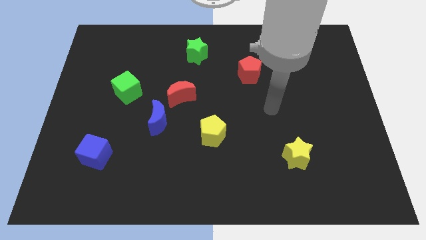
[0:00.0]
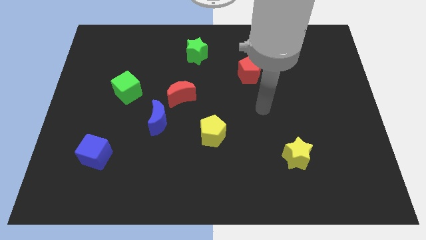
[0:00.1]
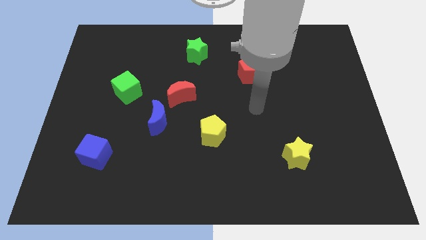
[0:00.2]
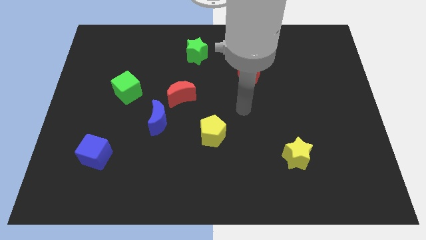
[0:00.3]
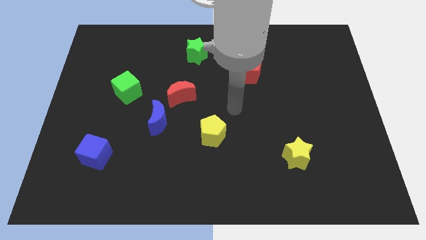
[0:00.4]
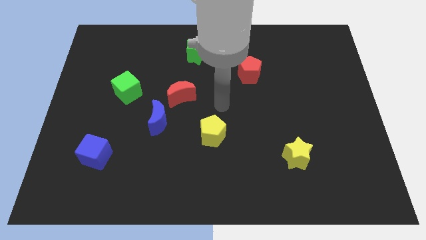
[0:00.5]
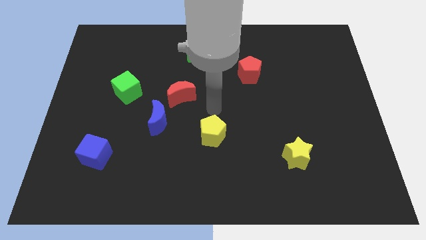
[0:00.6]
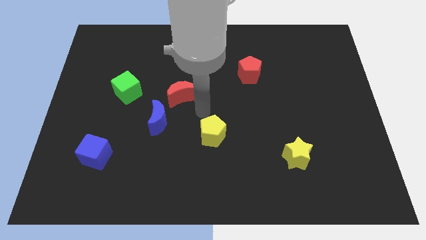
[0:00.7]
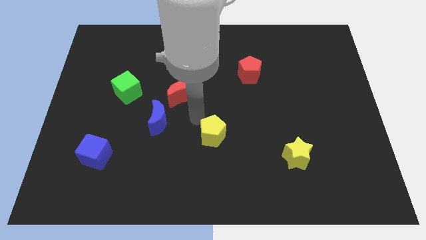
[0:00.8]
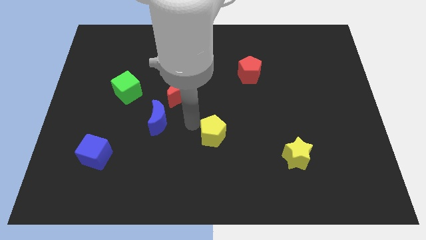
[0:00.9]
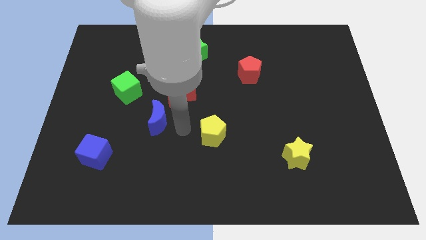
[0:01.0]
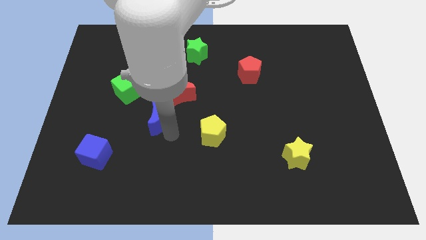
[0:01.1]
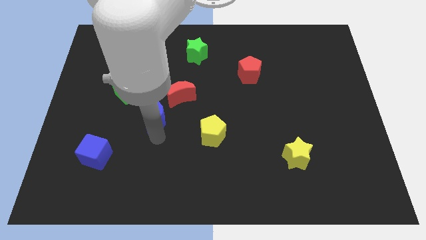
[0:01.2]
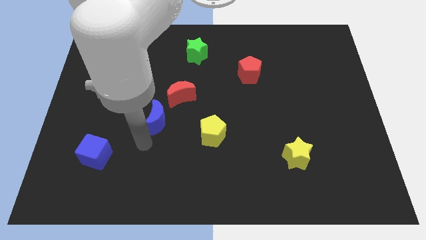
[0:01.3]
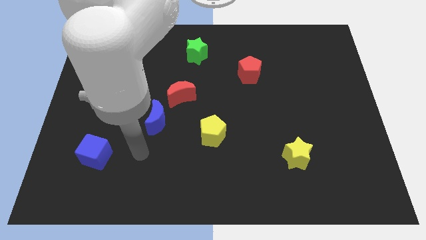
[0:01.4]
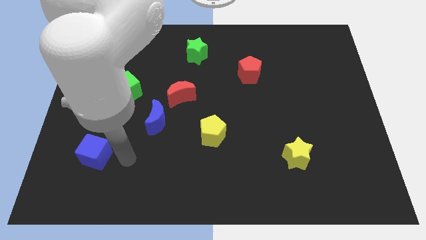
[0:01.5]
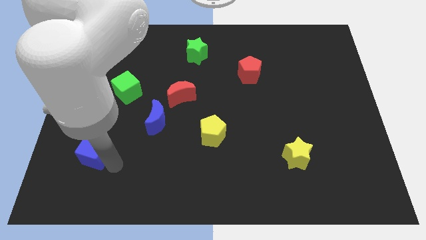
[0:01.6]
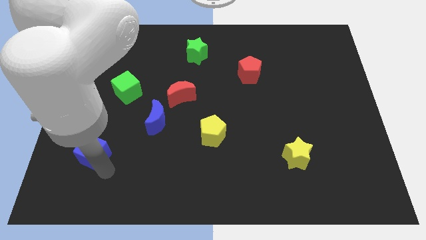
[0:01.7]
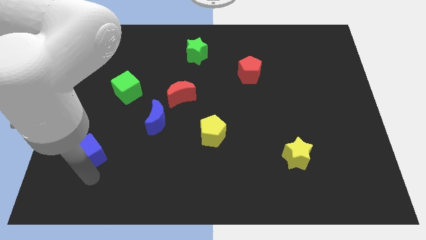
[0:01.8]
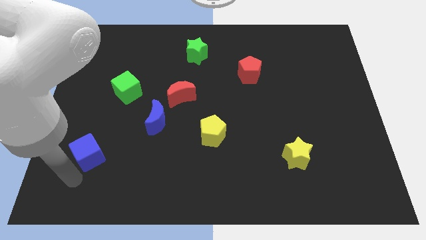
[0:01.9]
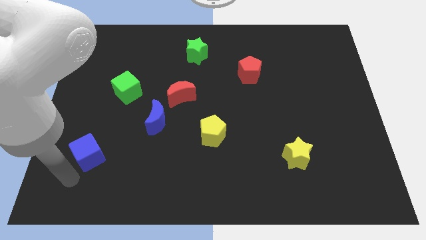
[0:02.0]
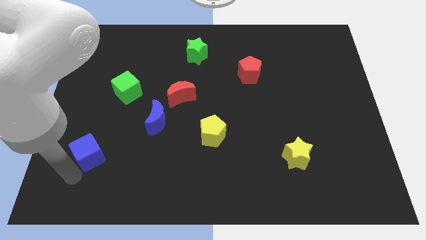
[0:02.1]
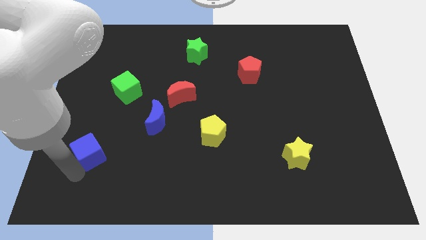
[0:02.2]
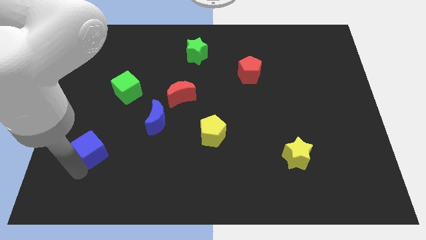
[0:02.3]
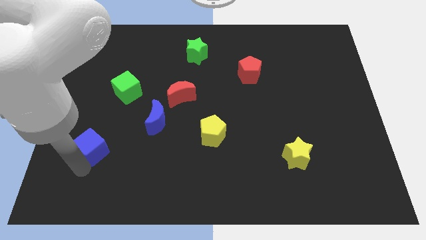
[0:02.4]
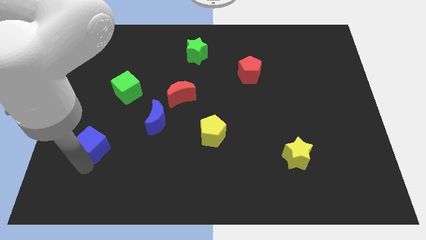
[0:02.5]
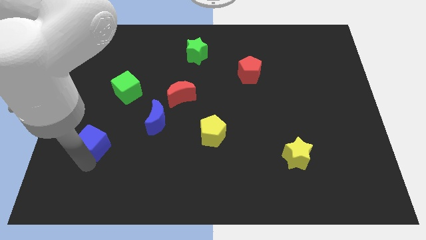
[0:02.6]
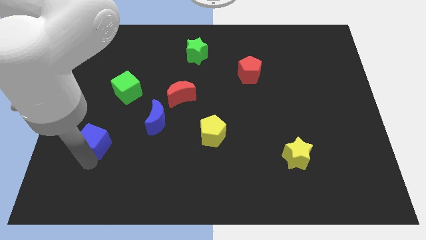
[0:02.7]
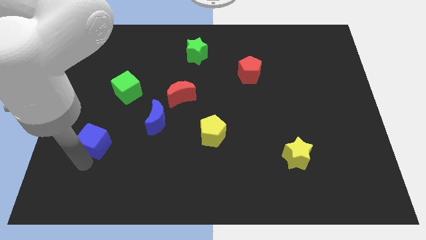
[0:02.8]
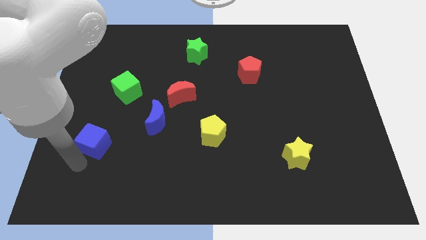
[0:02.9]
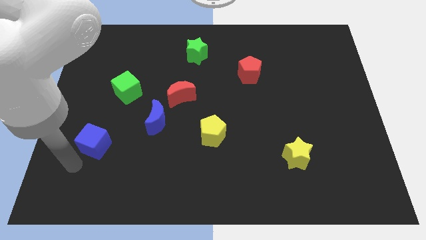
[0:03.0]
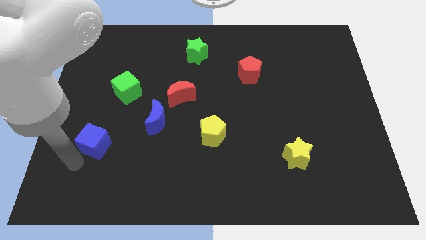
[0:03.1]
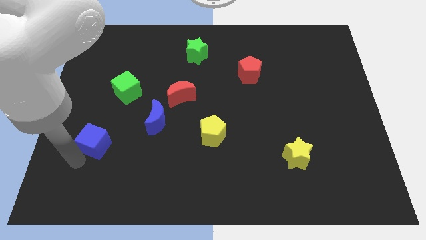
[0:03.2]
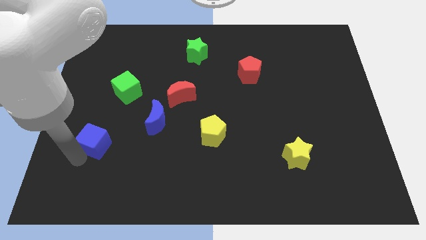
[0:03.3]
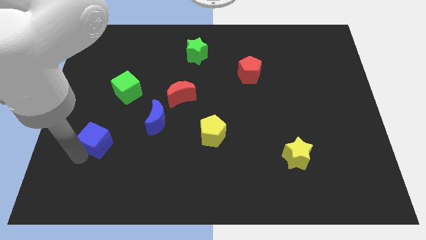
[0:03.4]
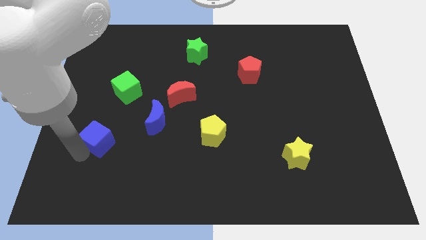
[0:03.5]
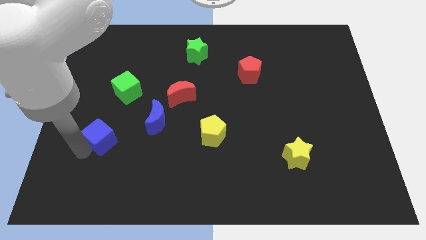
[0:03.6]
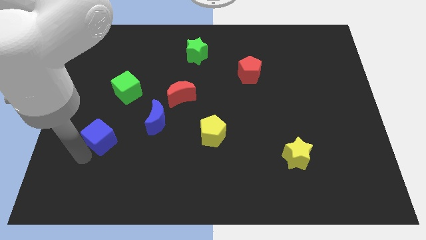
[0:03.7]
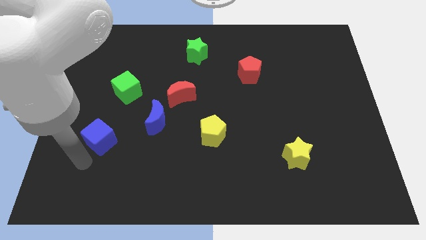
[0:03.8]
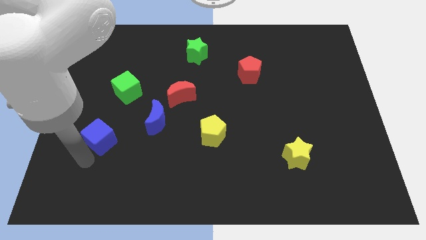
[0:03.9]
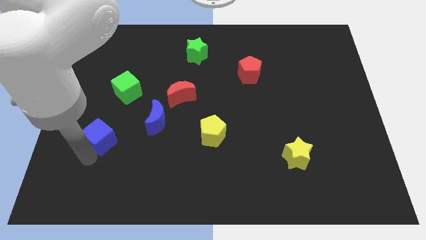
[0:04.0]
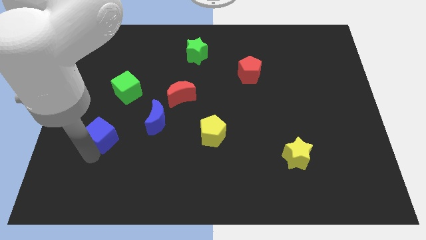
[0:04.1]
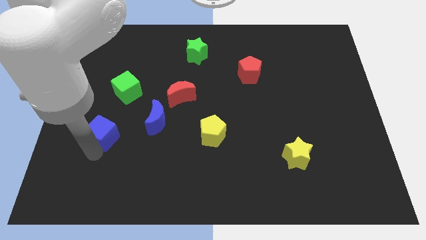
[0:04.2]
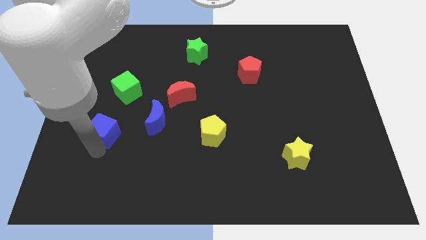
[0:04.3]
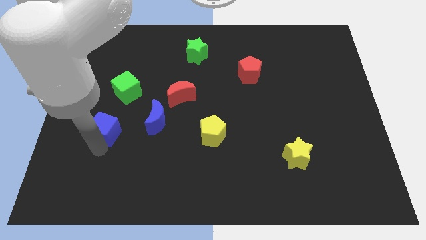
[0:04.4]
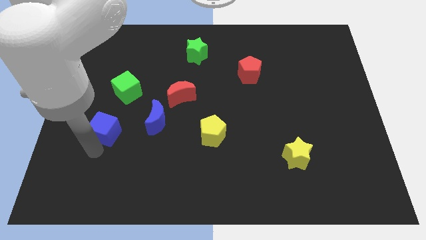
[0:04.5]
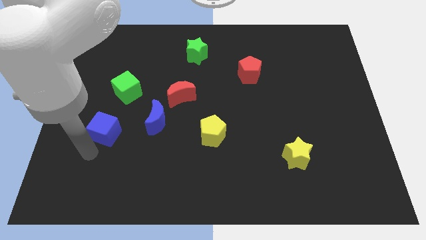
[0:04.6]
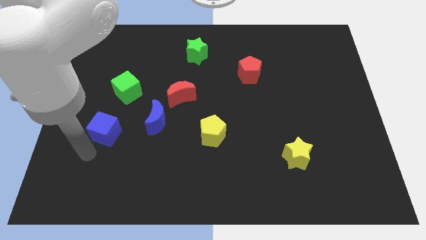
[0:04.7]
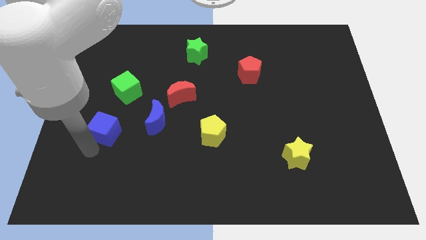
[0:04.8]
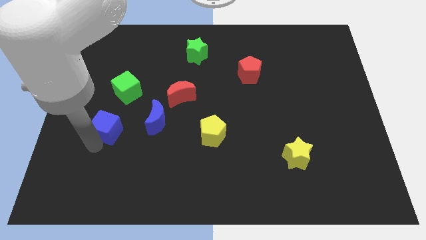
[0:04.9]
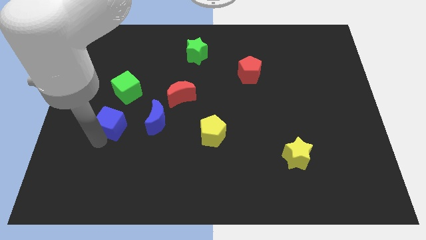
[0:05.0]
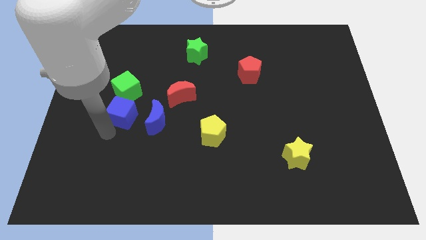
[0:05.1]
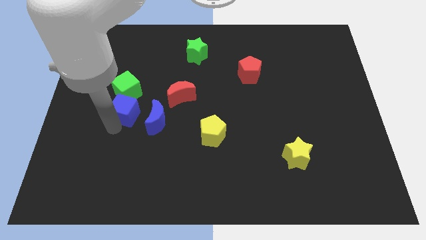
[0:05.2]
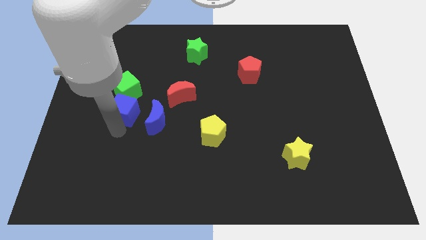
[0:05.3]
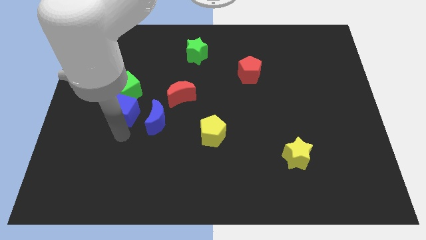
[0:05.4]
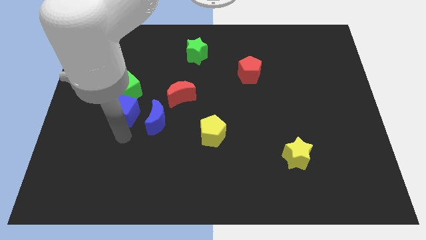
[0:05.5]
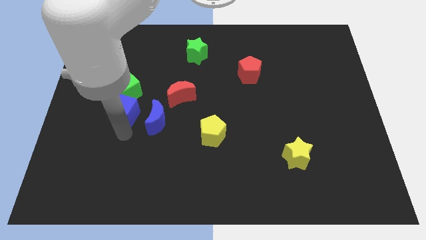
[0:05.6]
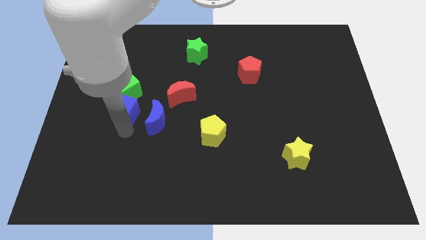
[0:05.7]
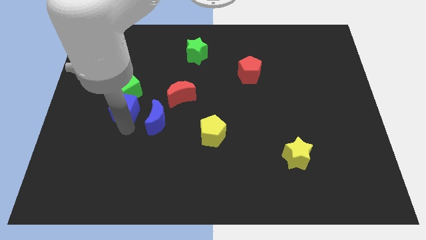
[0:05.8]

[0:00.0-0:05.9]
move the blue cube next to the green cube
